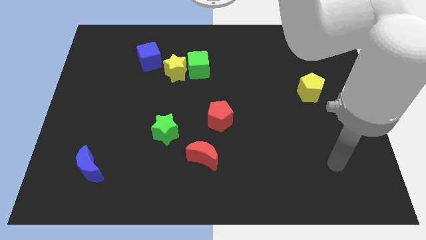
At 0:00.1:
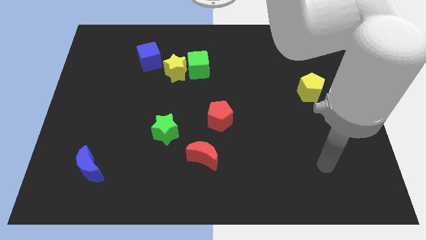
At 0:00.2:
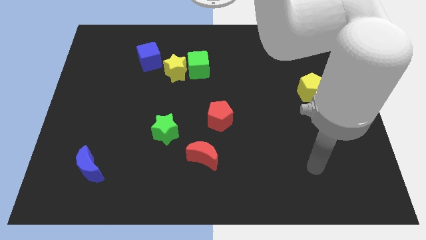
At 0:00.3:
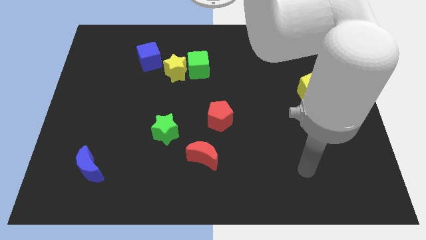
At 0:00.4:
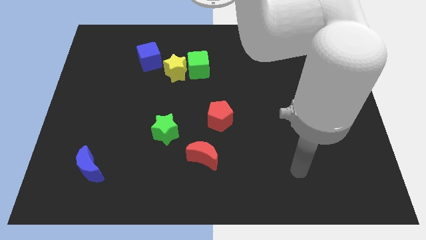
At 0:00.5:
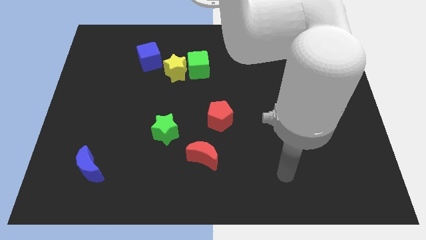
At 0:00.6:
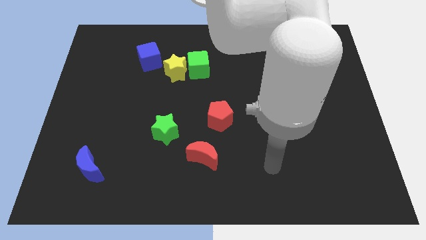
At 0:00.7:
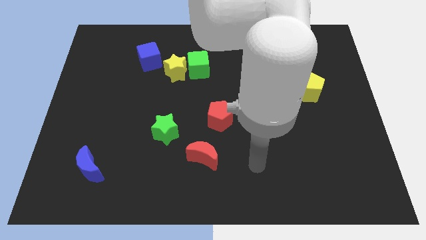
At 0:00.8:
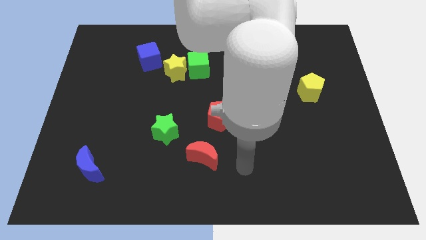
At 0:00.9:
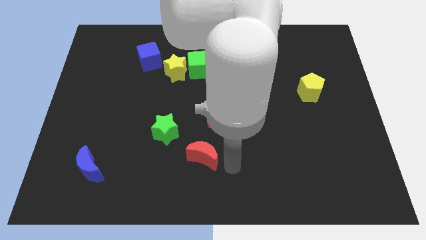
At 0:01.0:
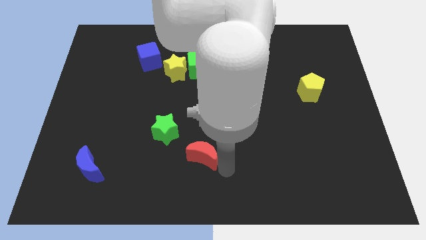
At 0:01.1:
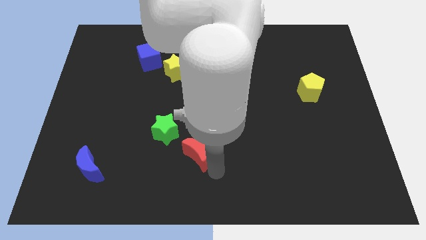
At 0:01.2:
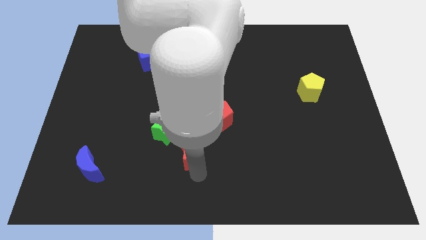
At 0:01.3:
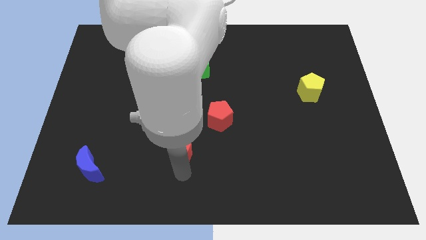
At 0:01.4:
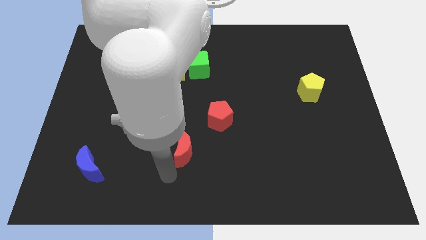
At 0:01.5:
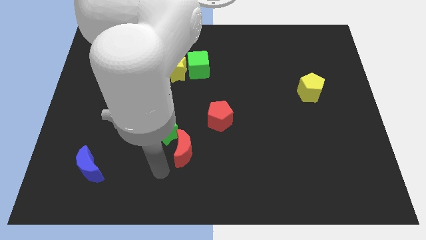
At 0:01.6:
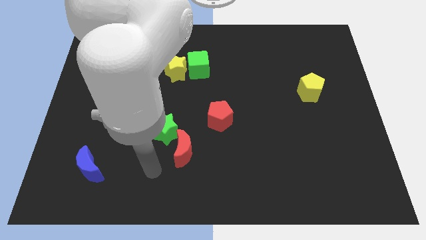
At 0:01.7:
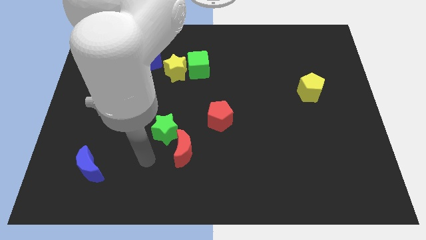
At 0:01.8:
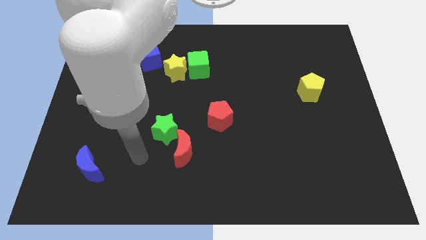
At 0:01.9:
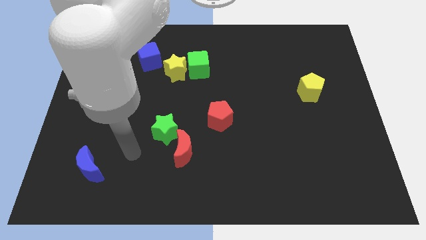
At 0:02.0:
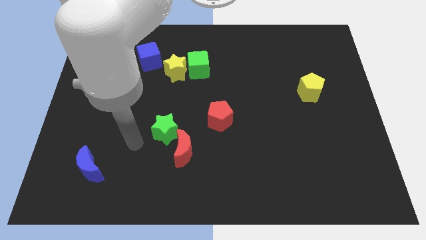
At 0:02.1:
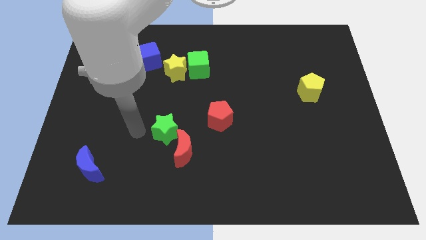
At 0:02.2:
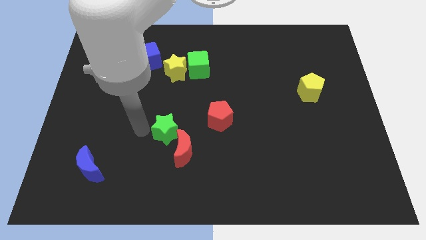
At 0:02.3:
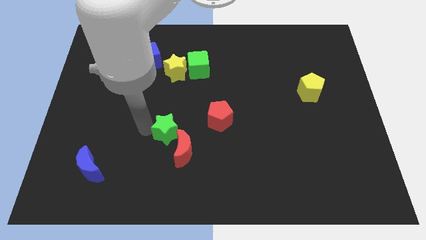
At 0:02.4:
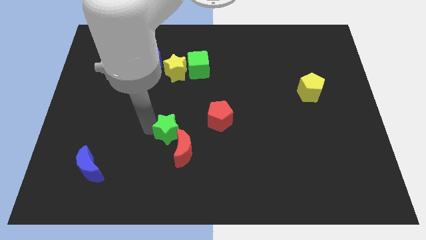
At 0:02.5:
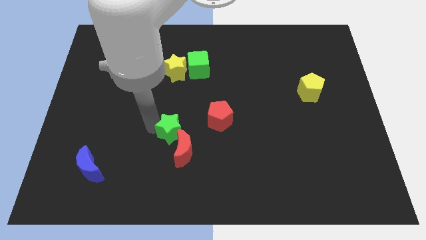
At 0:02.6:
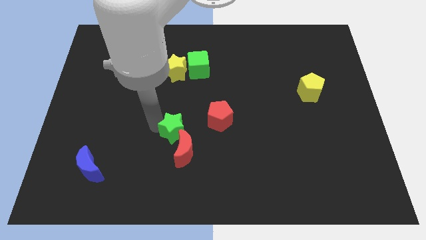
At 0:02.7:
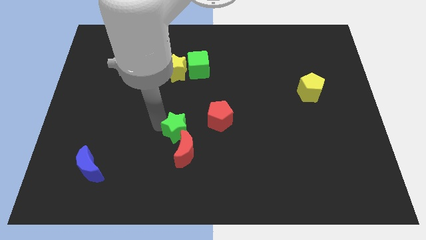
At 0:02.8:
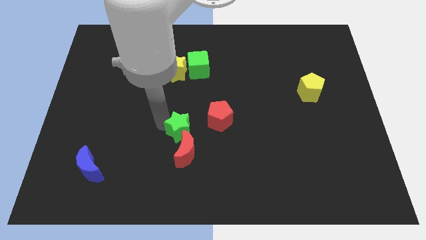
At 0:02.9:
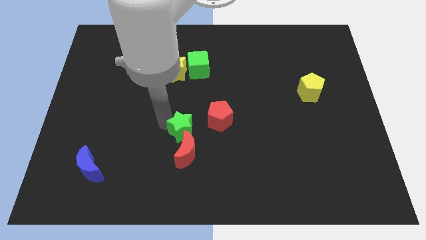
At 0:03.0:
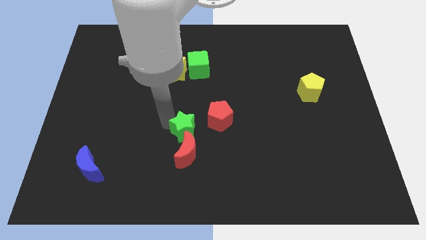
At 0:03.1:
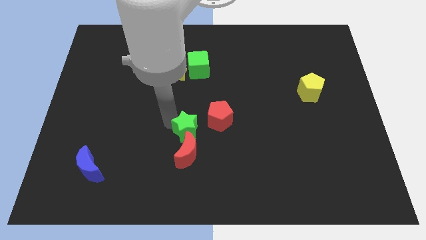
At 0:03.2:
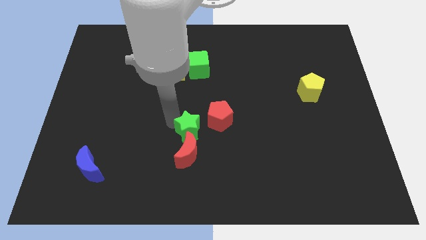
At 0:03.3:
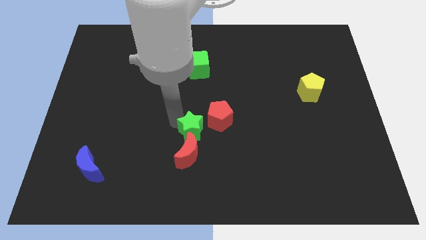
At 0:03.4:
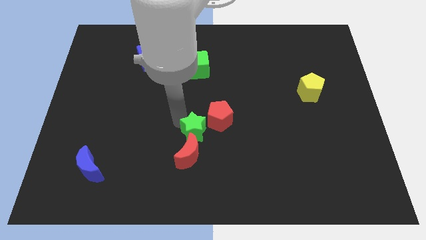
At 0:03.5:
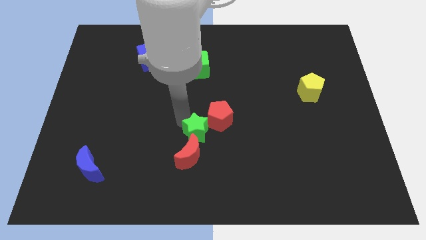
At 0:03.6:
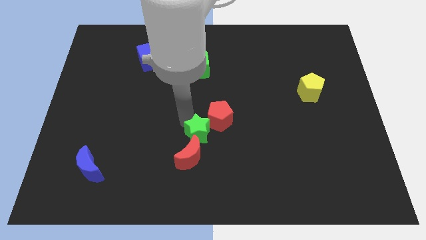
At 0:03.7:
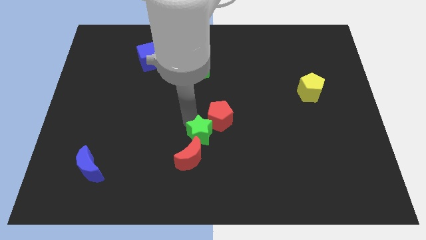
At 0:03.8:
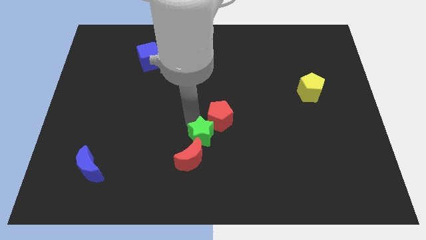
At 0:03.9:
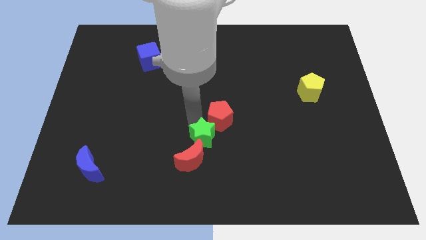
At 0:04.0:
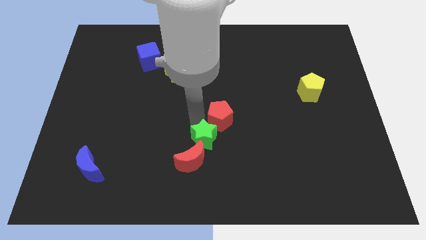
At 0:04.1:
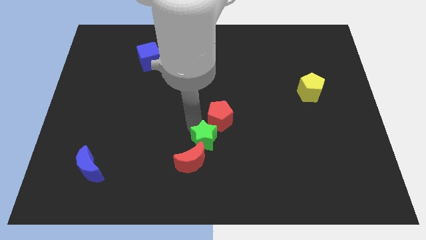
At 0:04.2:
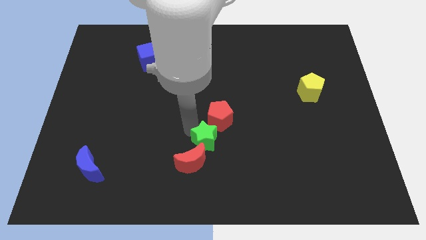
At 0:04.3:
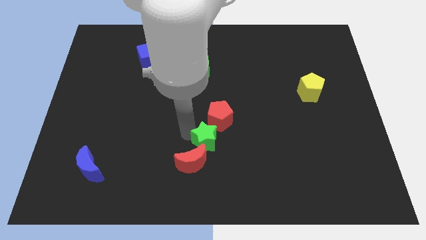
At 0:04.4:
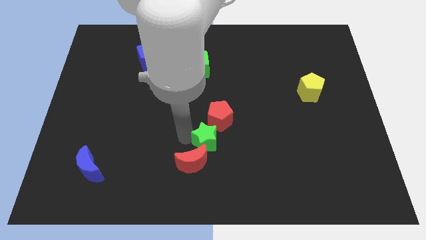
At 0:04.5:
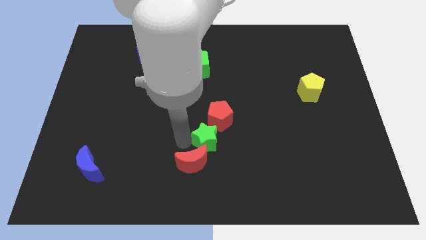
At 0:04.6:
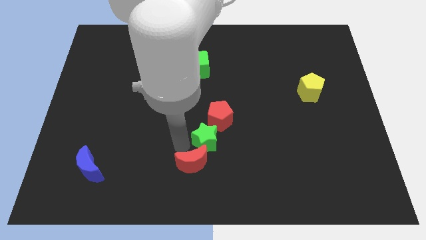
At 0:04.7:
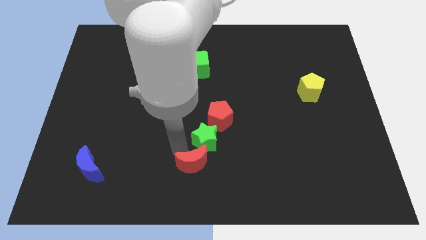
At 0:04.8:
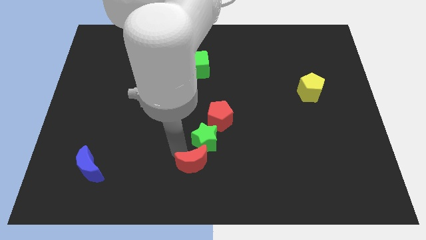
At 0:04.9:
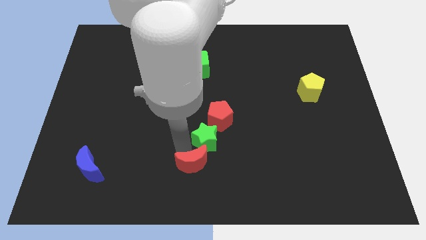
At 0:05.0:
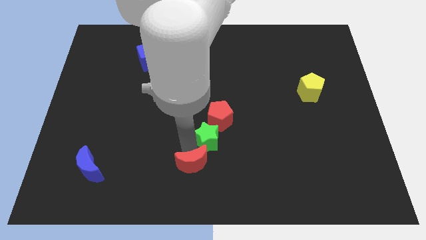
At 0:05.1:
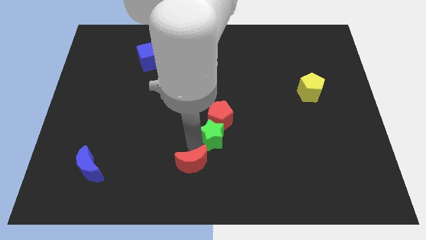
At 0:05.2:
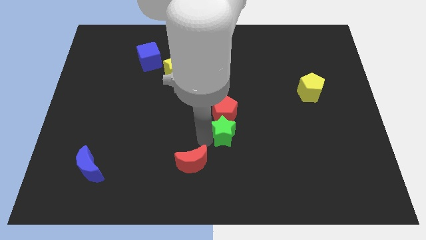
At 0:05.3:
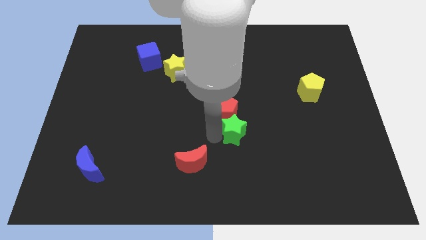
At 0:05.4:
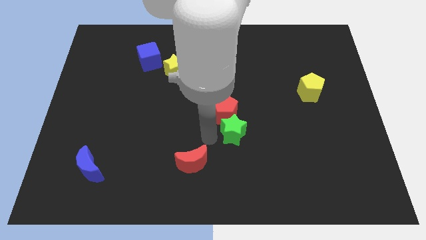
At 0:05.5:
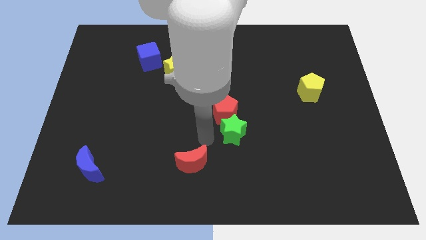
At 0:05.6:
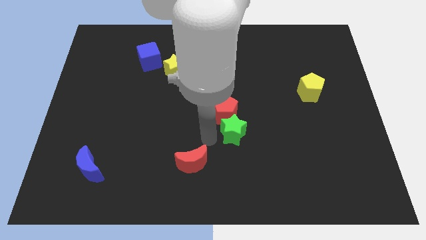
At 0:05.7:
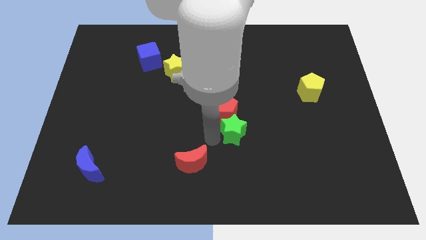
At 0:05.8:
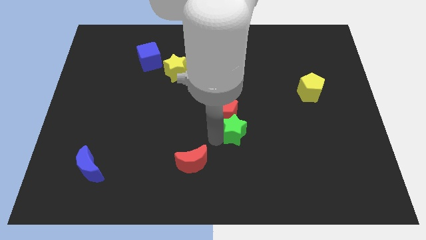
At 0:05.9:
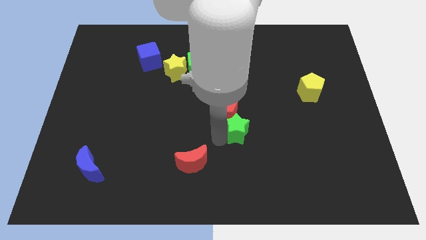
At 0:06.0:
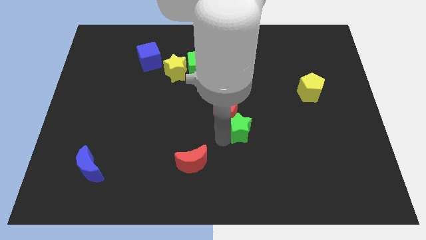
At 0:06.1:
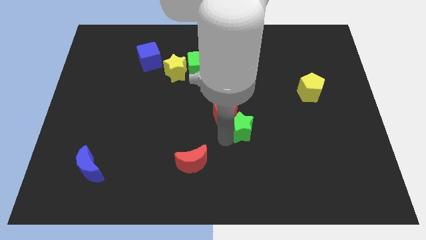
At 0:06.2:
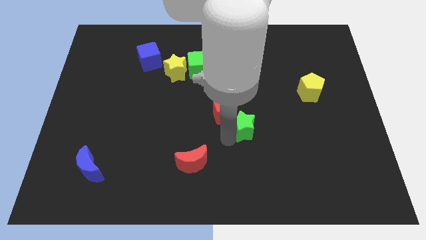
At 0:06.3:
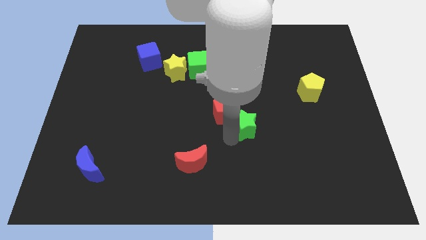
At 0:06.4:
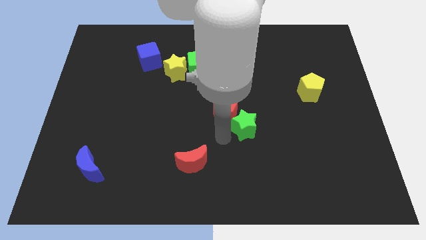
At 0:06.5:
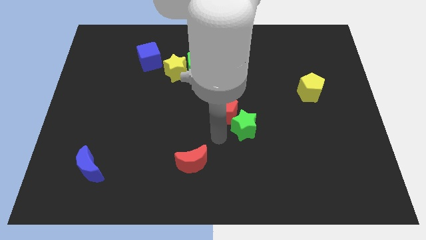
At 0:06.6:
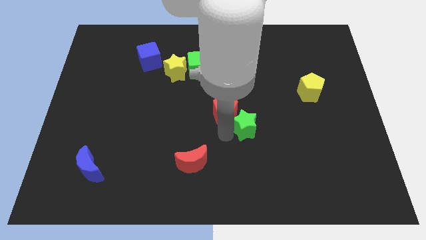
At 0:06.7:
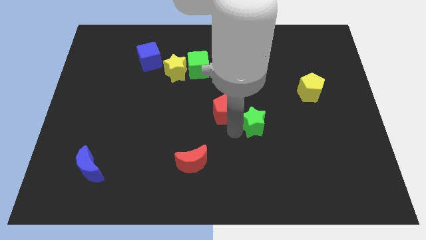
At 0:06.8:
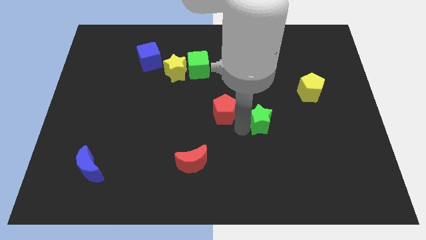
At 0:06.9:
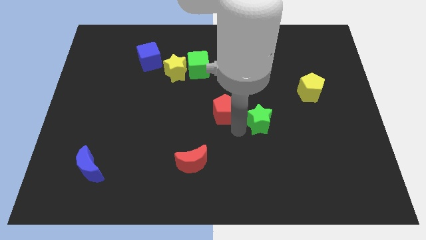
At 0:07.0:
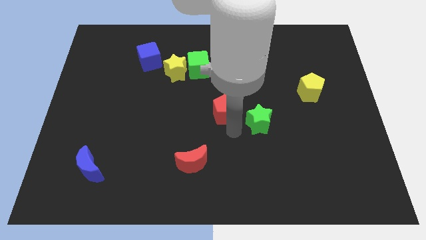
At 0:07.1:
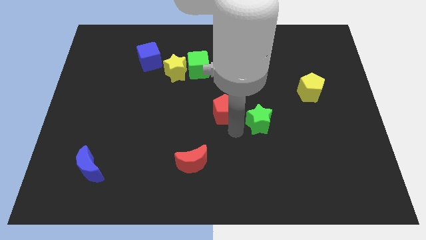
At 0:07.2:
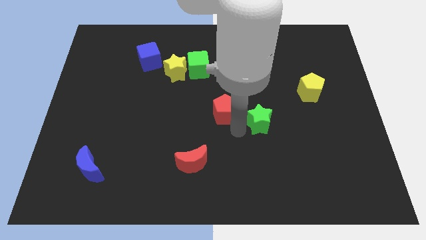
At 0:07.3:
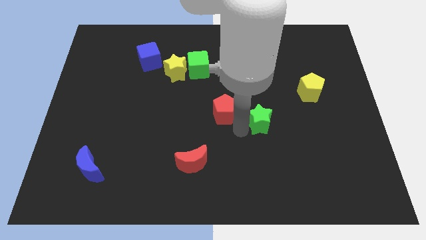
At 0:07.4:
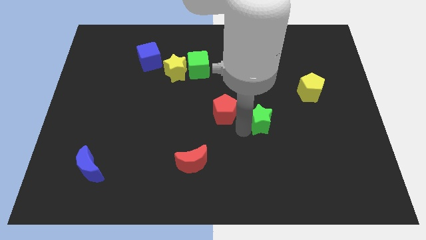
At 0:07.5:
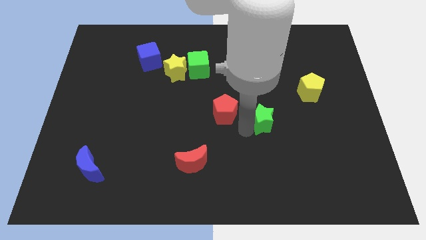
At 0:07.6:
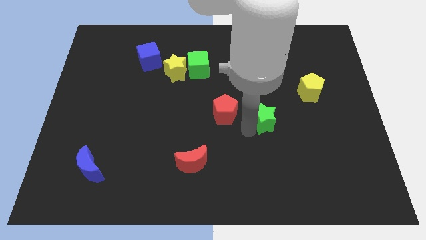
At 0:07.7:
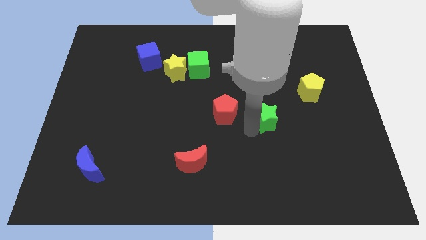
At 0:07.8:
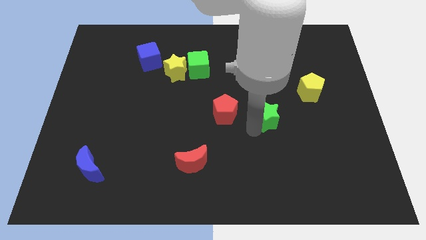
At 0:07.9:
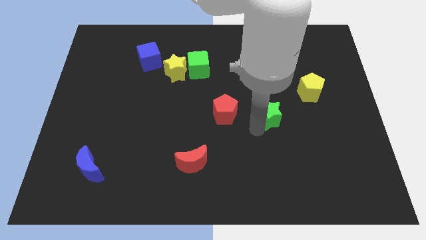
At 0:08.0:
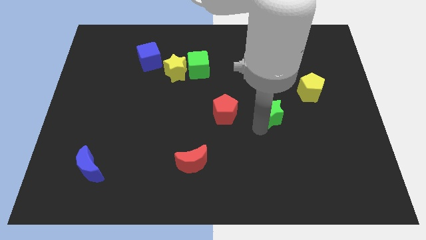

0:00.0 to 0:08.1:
put the green star to the bottom left side of the yellow pentagon
